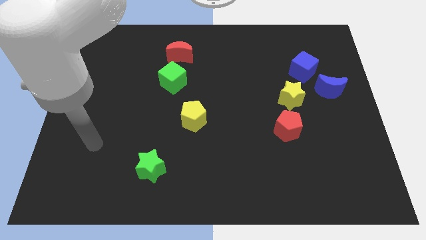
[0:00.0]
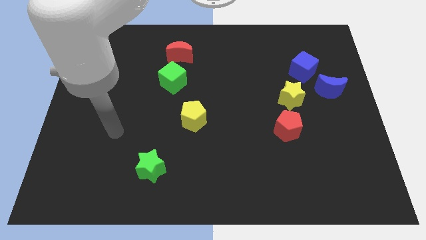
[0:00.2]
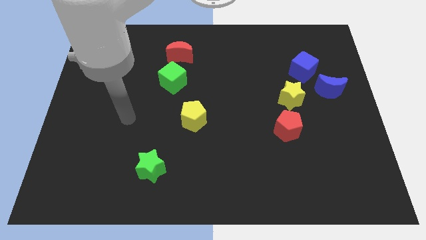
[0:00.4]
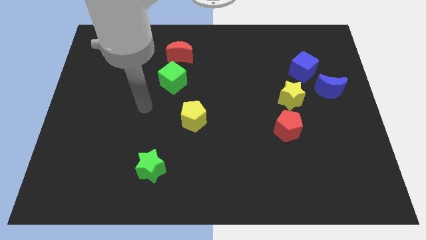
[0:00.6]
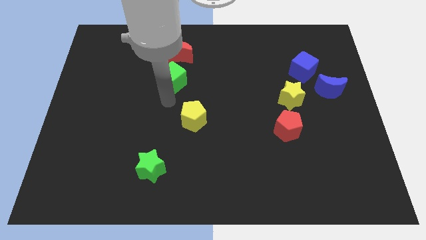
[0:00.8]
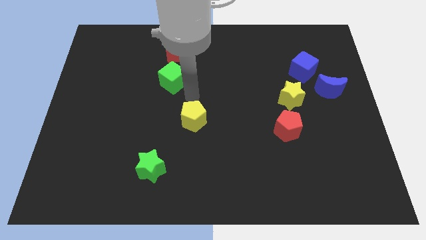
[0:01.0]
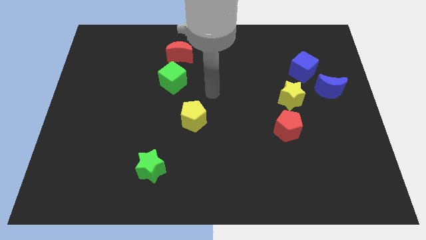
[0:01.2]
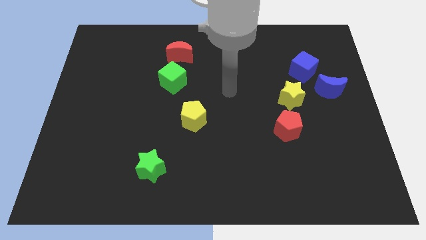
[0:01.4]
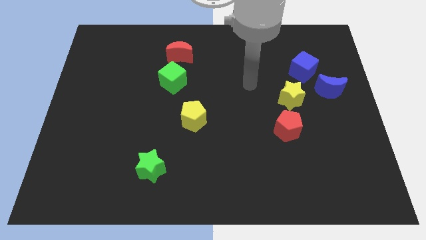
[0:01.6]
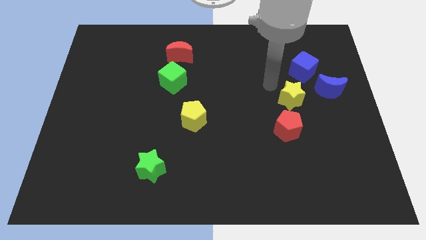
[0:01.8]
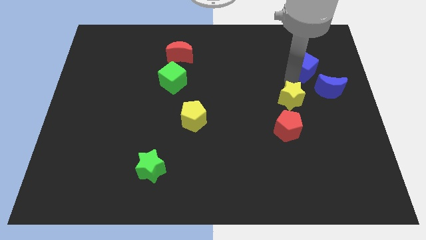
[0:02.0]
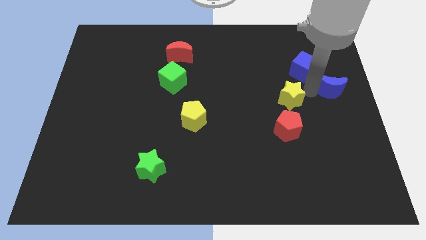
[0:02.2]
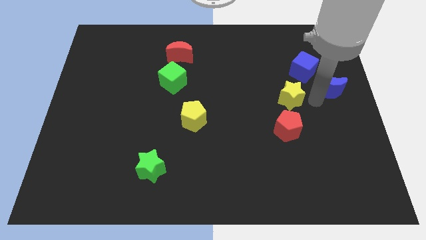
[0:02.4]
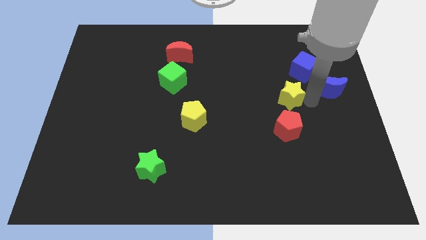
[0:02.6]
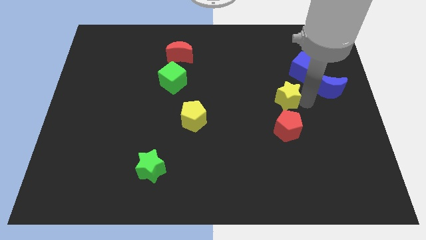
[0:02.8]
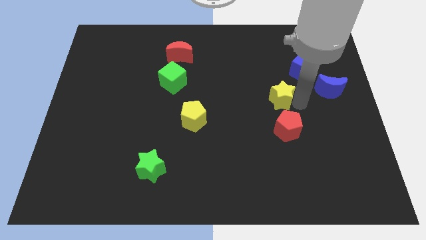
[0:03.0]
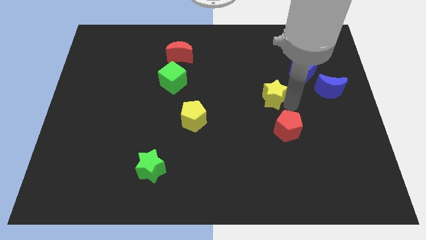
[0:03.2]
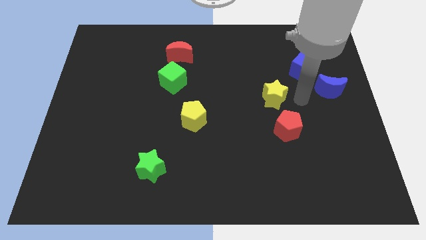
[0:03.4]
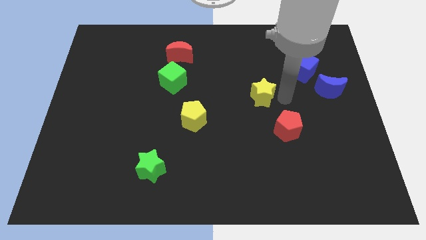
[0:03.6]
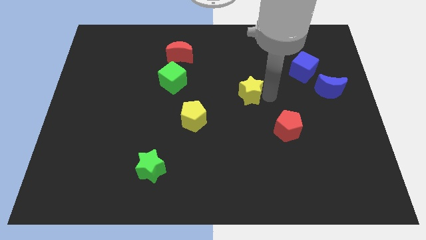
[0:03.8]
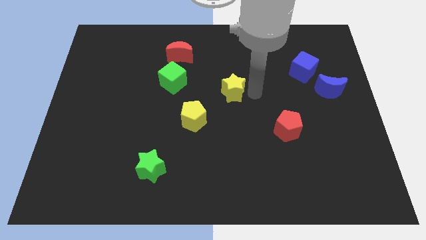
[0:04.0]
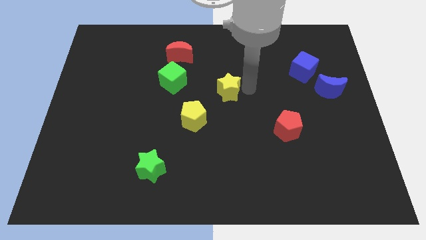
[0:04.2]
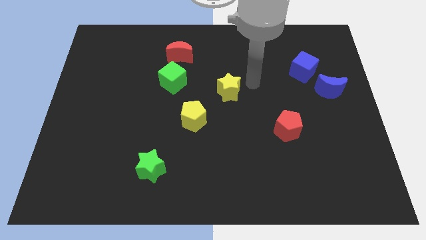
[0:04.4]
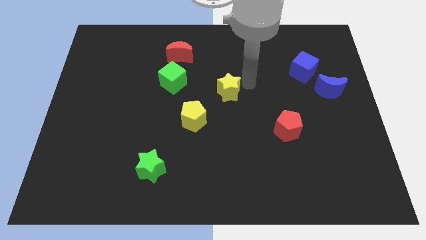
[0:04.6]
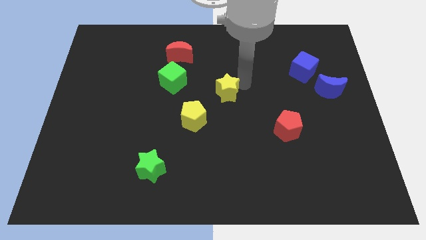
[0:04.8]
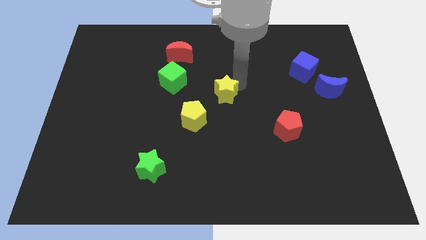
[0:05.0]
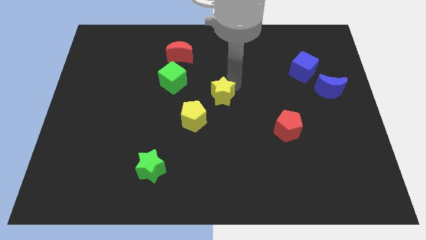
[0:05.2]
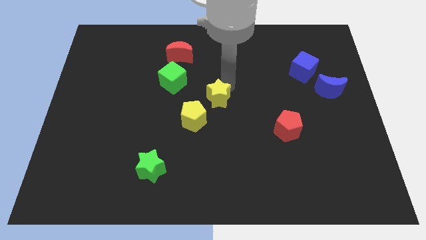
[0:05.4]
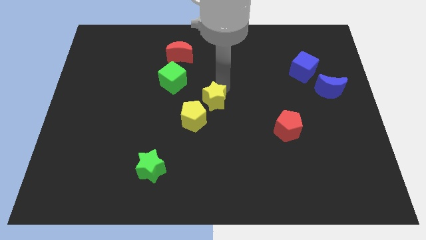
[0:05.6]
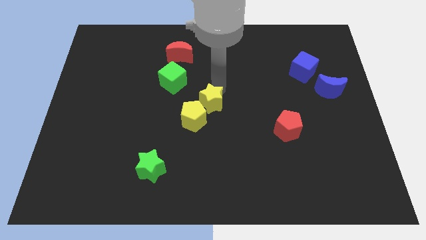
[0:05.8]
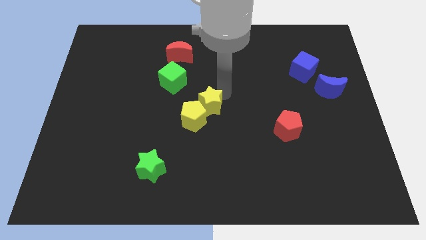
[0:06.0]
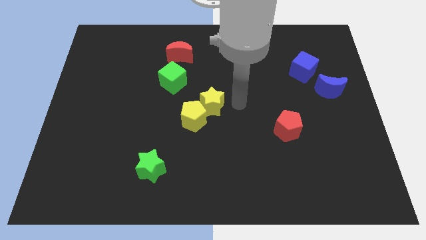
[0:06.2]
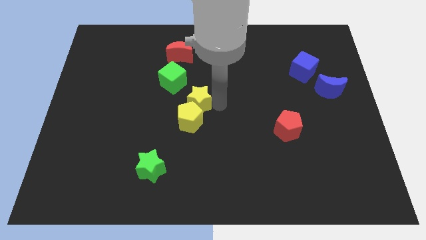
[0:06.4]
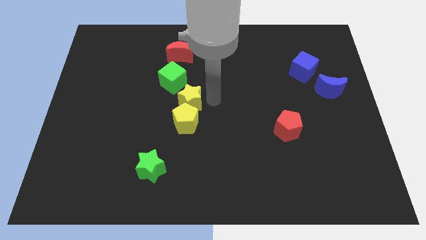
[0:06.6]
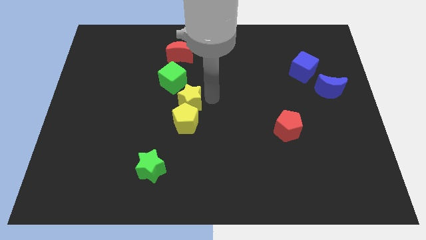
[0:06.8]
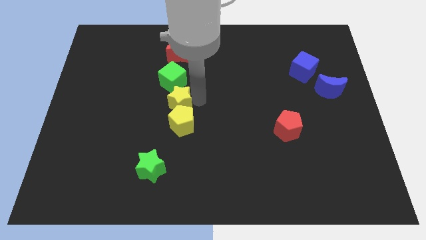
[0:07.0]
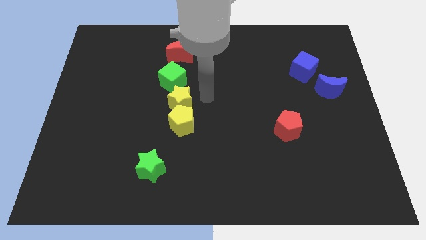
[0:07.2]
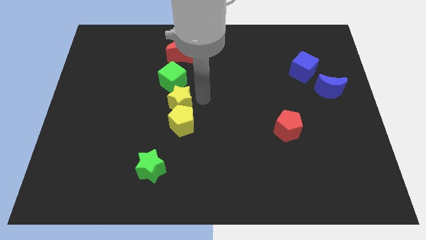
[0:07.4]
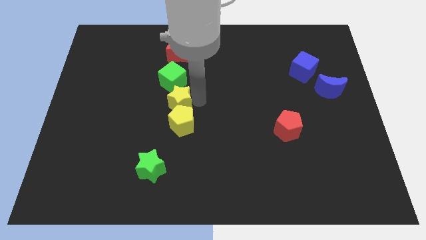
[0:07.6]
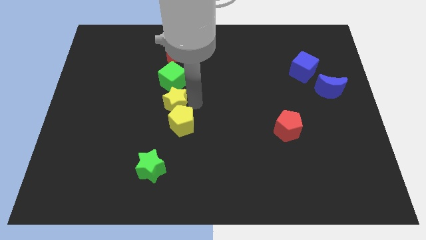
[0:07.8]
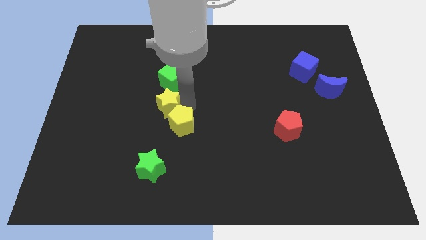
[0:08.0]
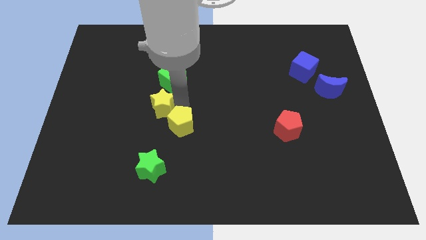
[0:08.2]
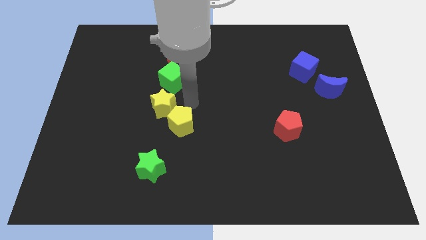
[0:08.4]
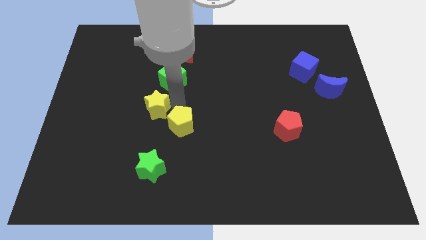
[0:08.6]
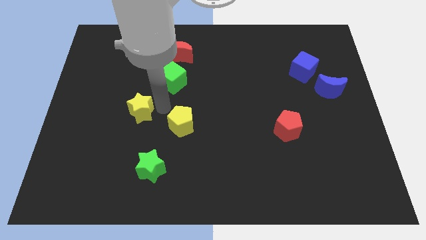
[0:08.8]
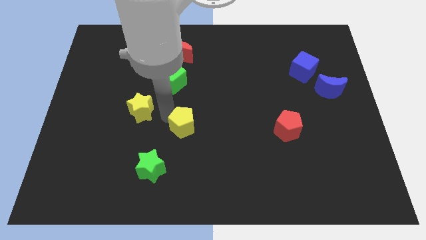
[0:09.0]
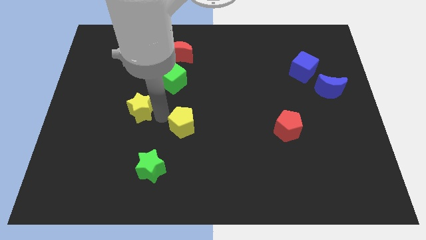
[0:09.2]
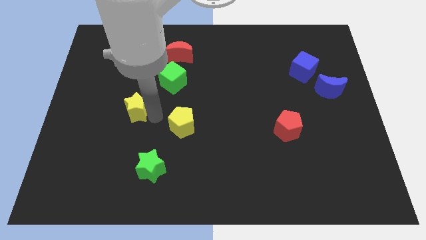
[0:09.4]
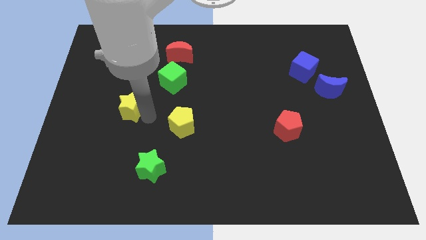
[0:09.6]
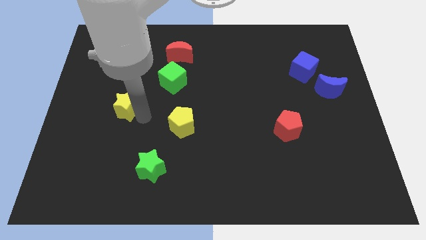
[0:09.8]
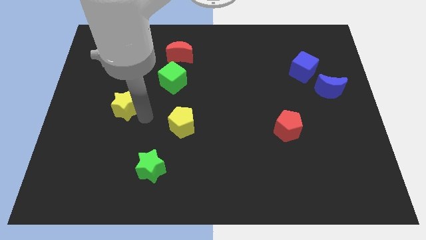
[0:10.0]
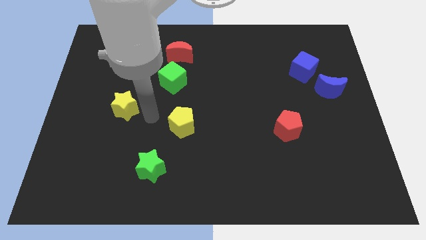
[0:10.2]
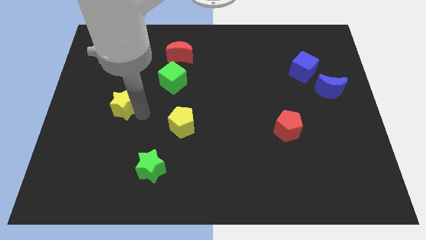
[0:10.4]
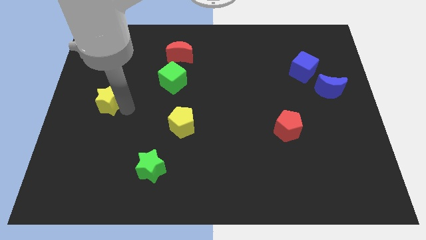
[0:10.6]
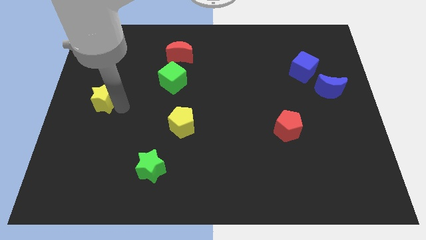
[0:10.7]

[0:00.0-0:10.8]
move the yellow star to the center left

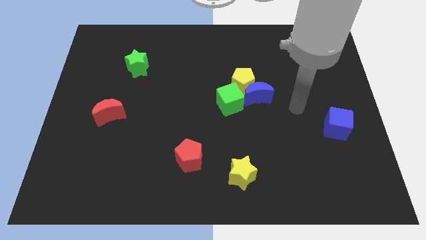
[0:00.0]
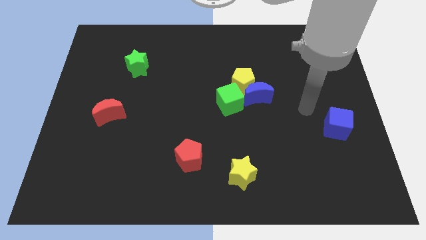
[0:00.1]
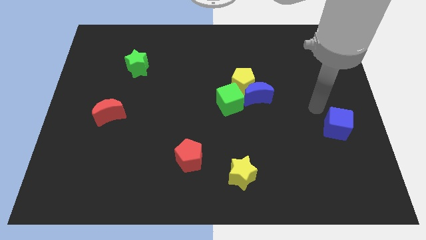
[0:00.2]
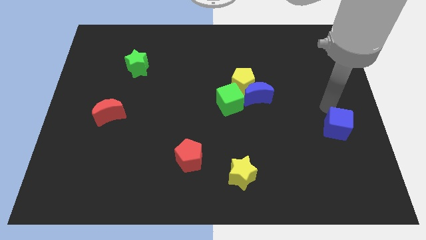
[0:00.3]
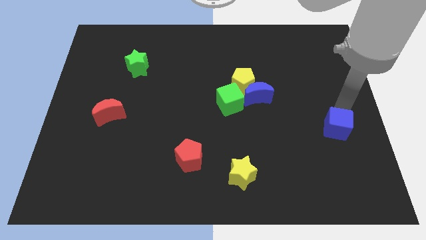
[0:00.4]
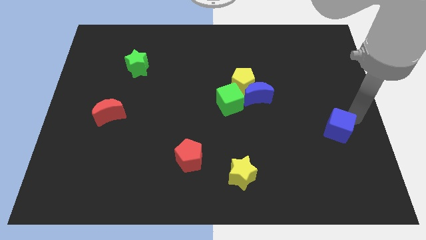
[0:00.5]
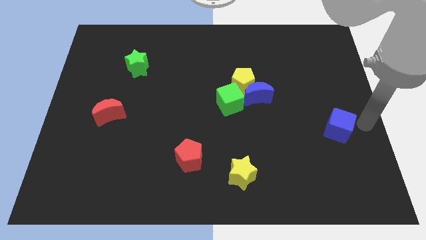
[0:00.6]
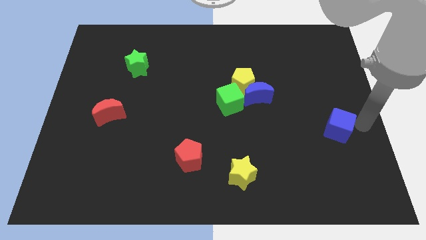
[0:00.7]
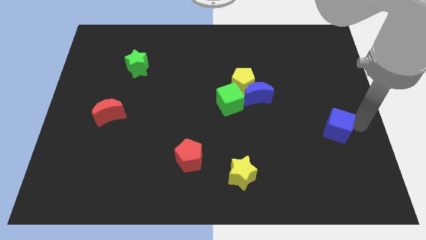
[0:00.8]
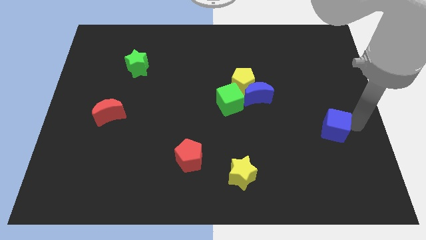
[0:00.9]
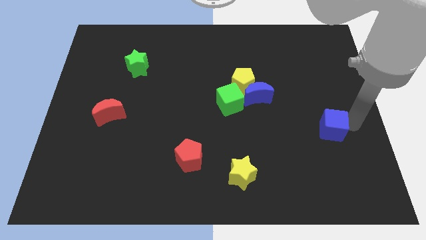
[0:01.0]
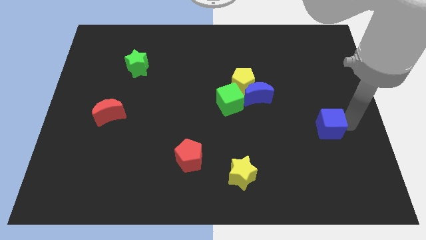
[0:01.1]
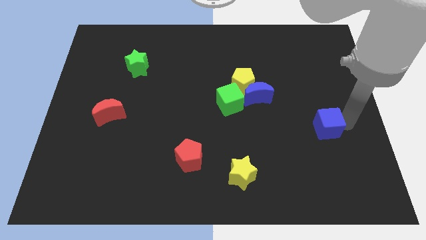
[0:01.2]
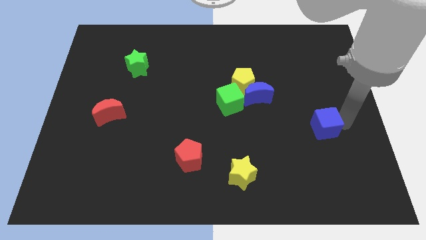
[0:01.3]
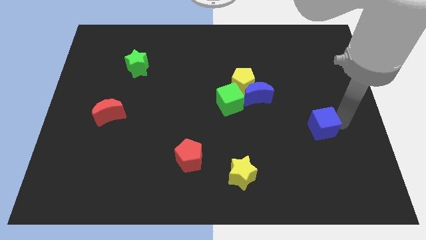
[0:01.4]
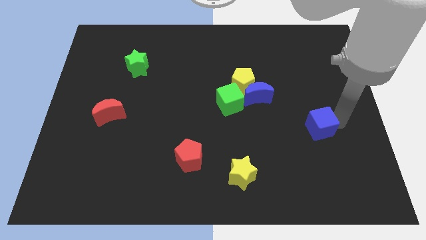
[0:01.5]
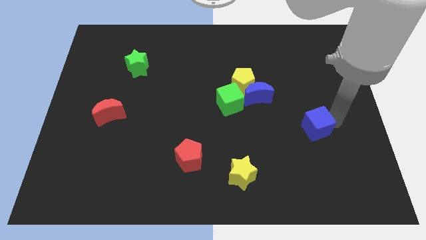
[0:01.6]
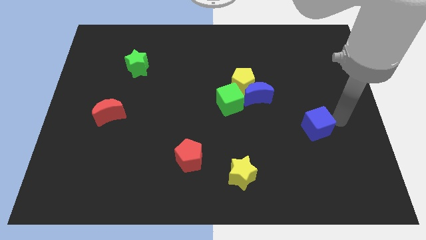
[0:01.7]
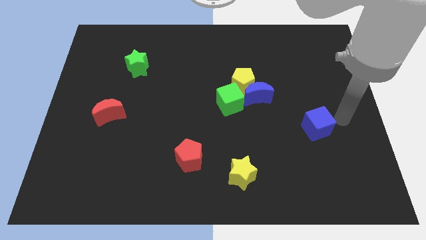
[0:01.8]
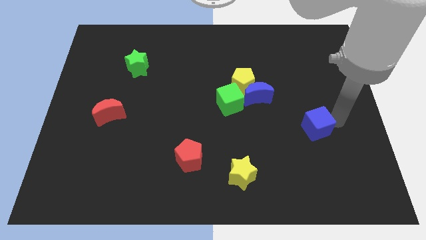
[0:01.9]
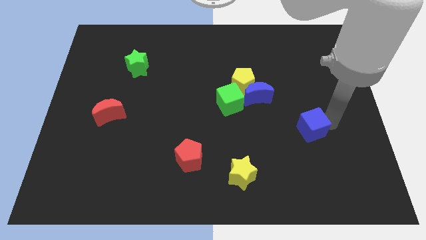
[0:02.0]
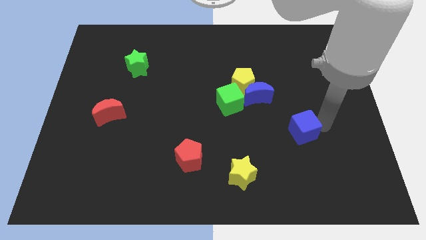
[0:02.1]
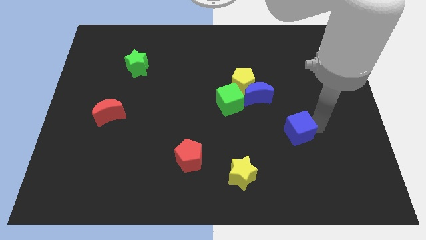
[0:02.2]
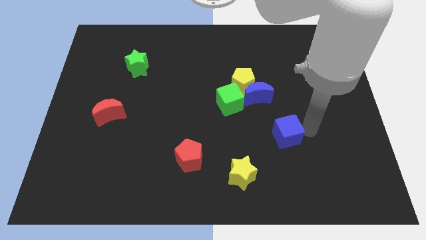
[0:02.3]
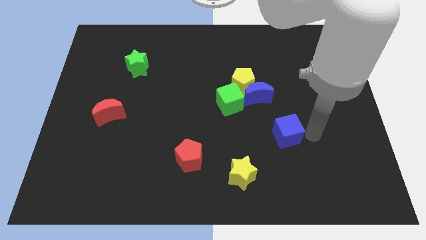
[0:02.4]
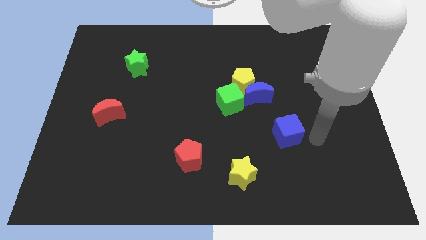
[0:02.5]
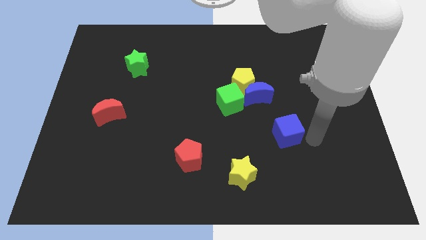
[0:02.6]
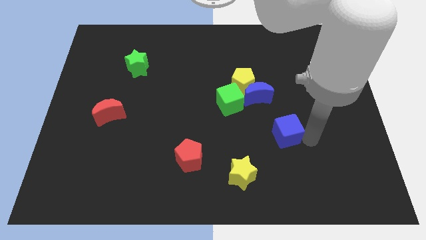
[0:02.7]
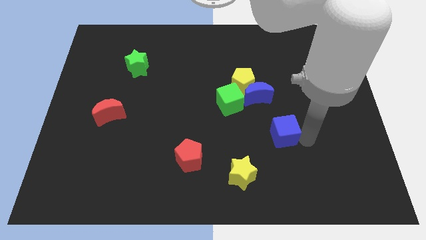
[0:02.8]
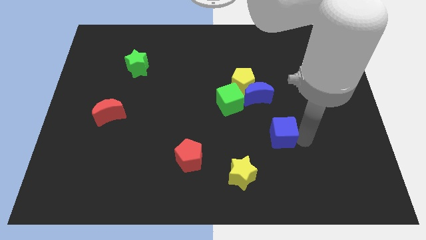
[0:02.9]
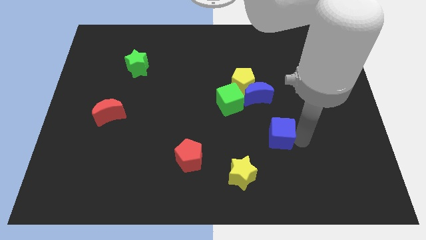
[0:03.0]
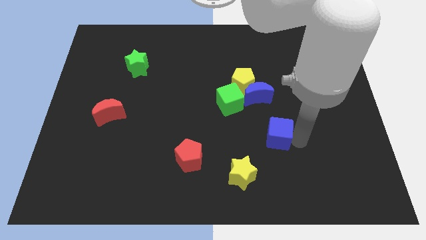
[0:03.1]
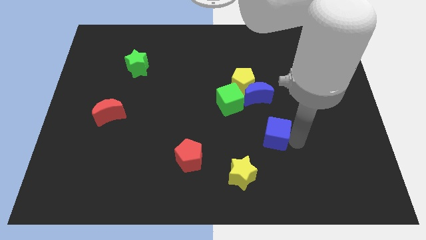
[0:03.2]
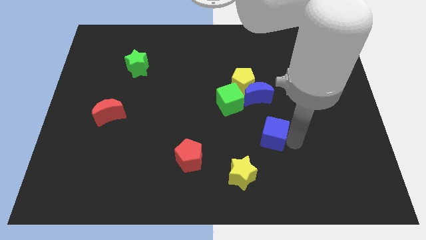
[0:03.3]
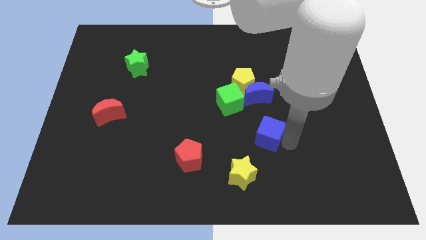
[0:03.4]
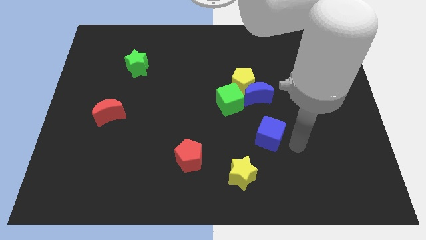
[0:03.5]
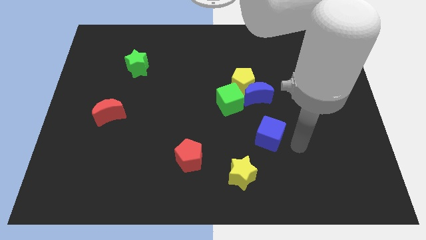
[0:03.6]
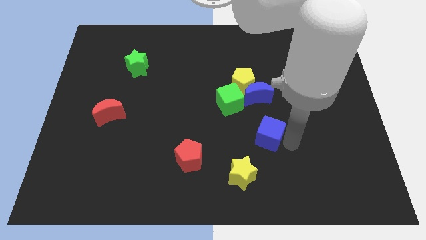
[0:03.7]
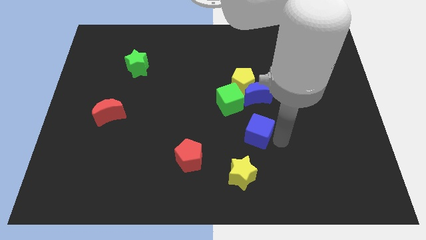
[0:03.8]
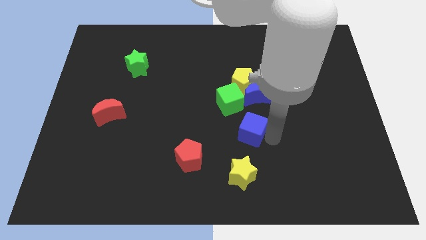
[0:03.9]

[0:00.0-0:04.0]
push the blue cube to the middle
